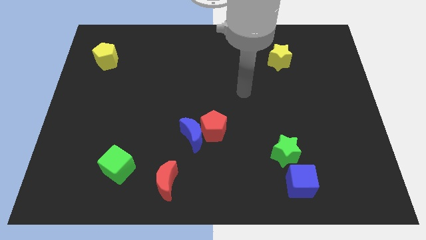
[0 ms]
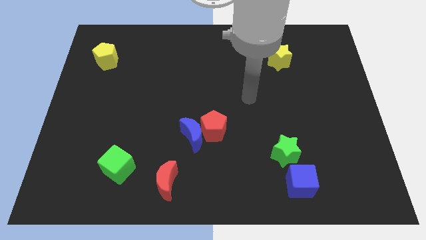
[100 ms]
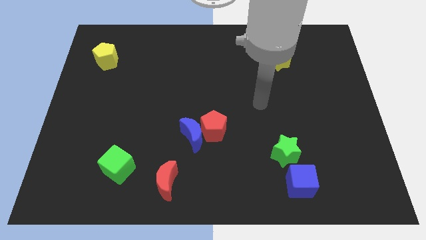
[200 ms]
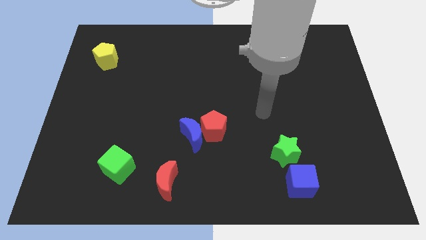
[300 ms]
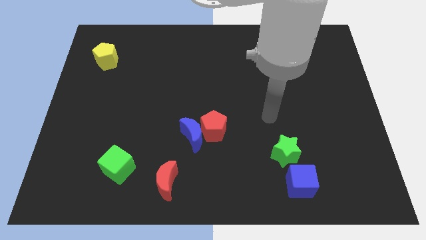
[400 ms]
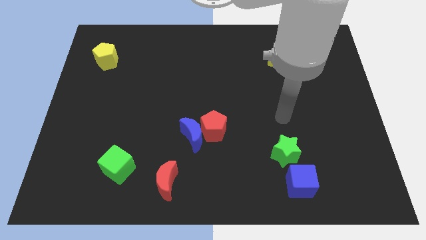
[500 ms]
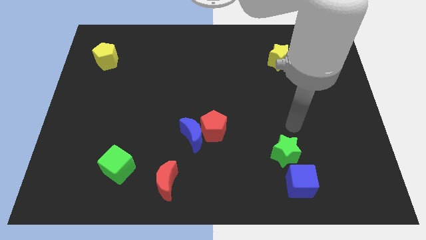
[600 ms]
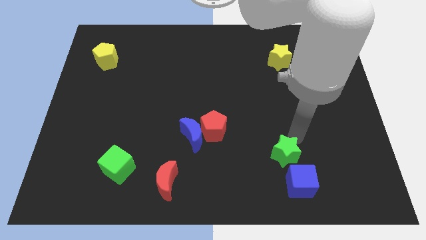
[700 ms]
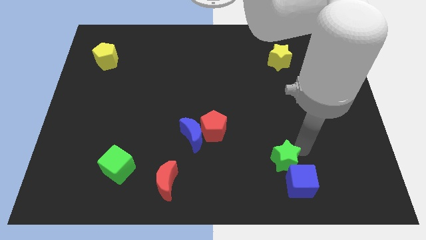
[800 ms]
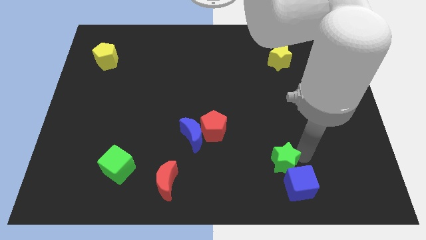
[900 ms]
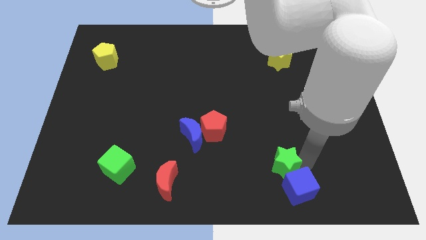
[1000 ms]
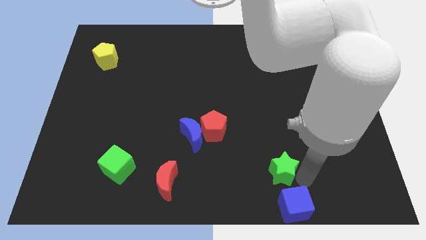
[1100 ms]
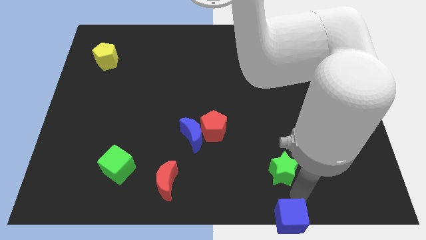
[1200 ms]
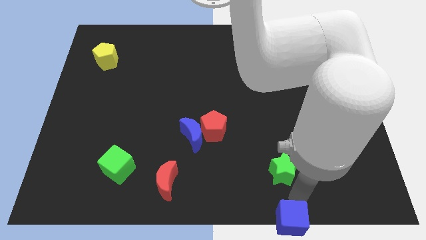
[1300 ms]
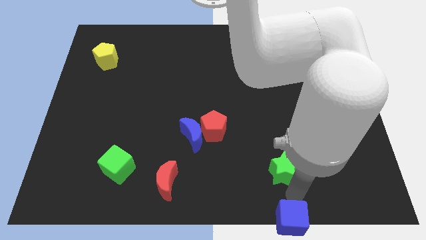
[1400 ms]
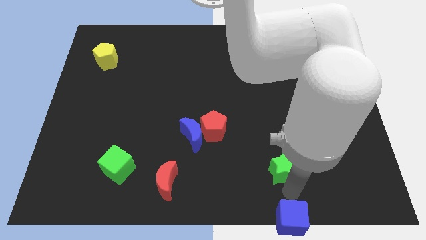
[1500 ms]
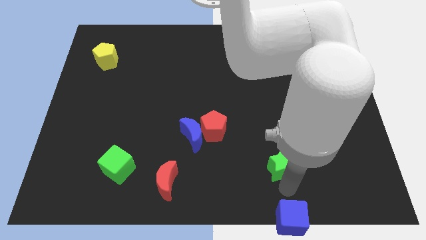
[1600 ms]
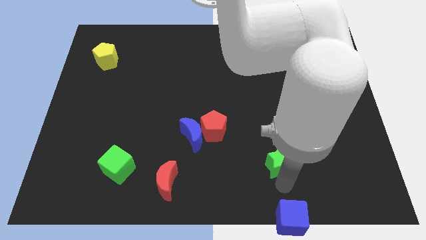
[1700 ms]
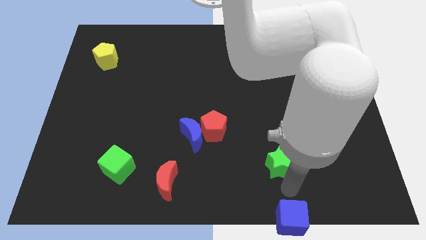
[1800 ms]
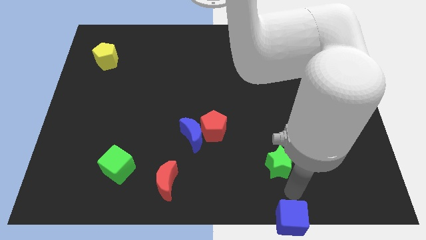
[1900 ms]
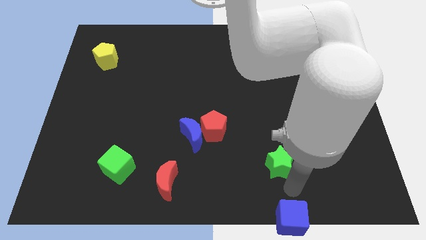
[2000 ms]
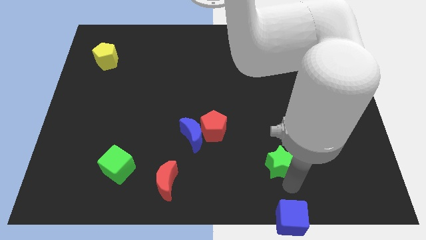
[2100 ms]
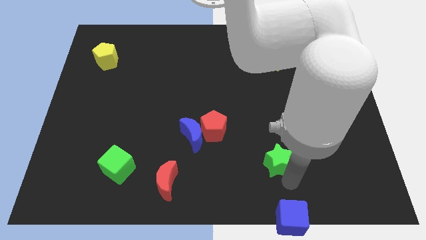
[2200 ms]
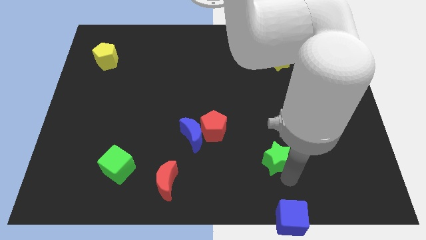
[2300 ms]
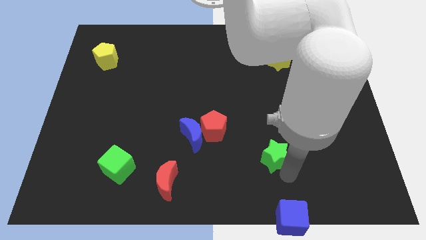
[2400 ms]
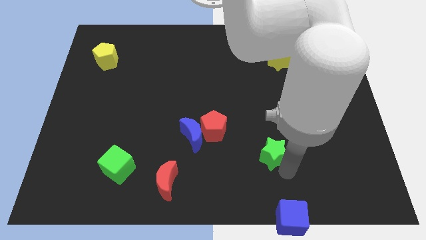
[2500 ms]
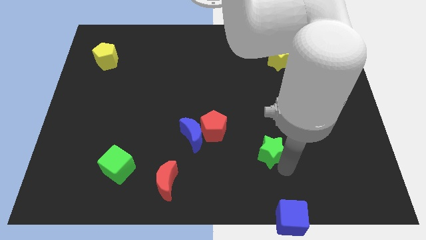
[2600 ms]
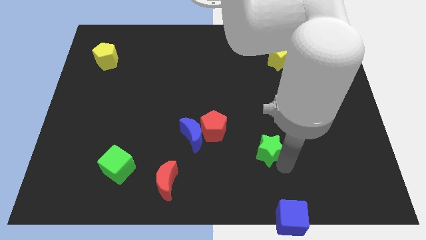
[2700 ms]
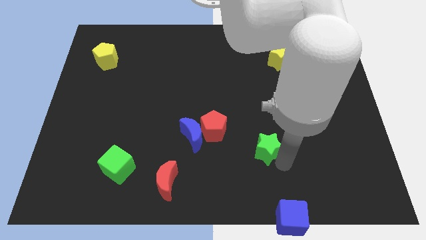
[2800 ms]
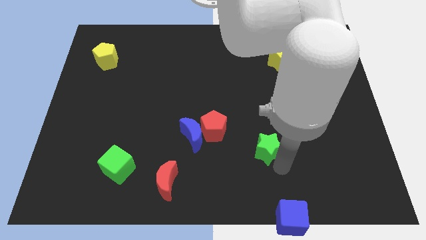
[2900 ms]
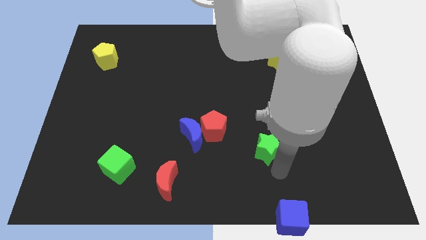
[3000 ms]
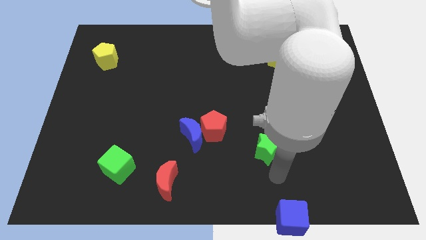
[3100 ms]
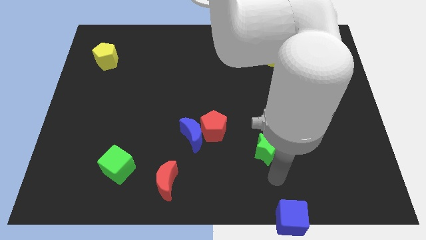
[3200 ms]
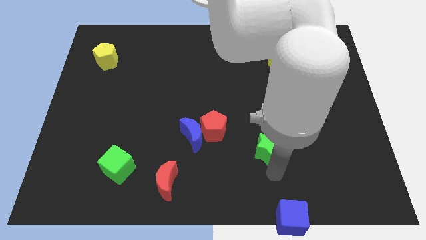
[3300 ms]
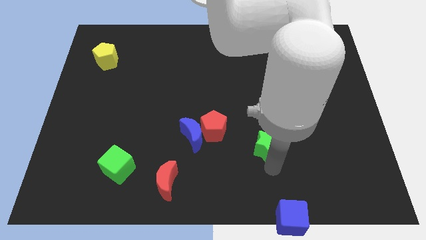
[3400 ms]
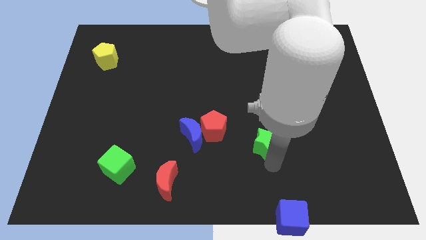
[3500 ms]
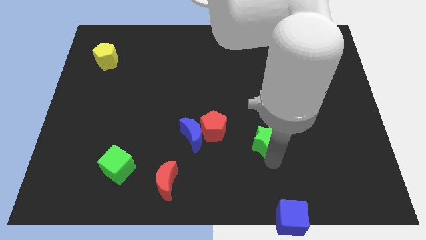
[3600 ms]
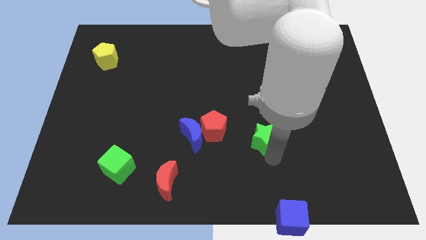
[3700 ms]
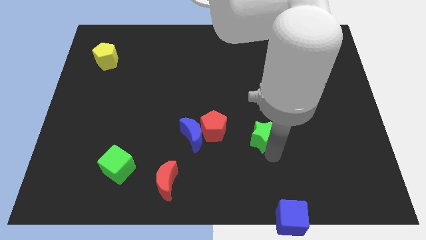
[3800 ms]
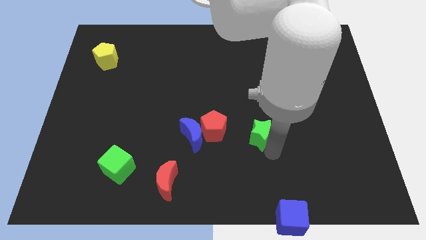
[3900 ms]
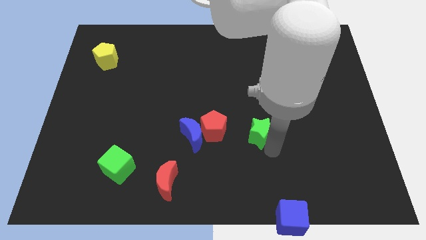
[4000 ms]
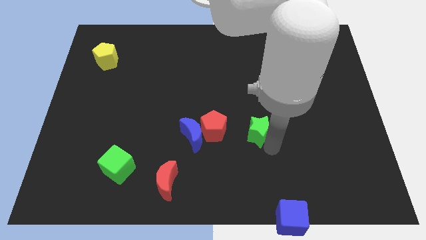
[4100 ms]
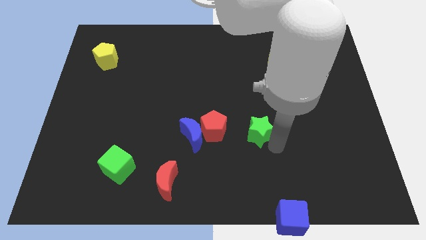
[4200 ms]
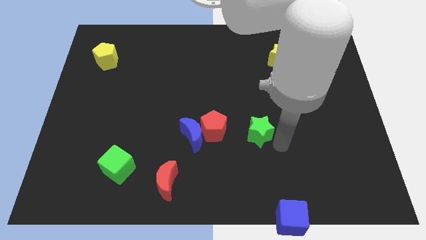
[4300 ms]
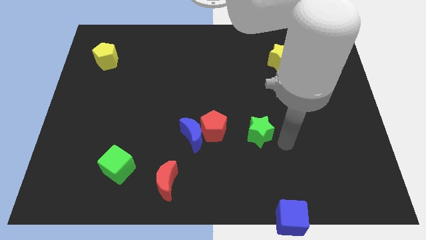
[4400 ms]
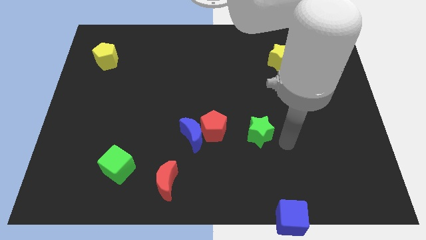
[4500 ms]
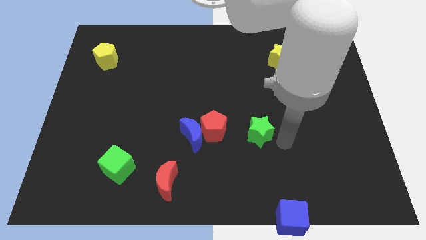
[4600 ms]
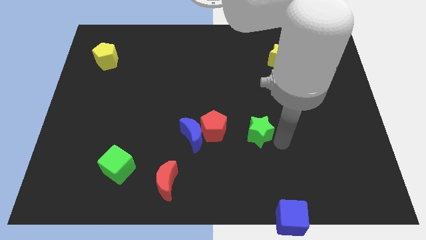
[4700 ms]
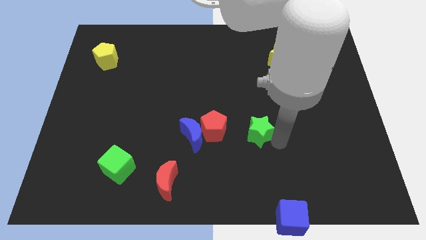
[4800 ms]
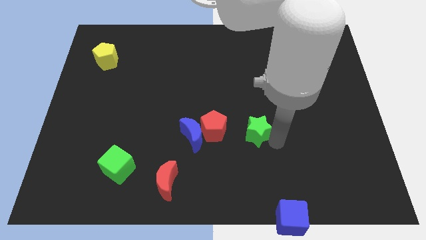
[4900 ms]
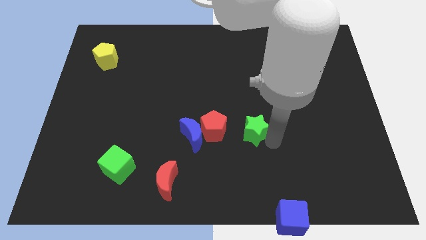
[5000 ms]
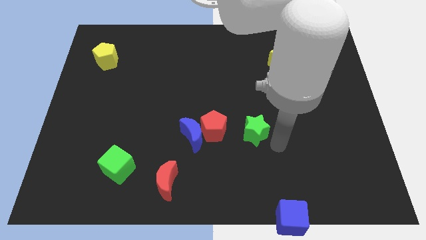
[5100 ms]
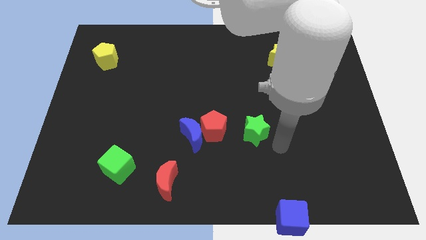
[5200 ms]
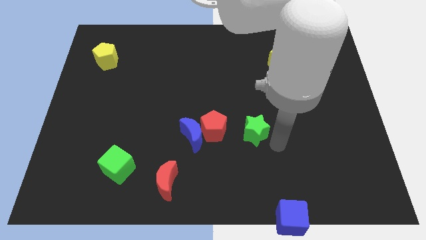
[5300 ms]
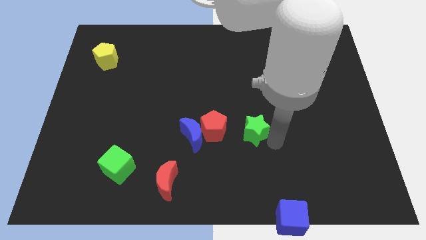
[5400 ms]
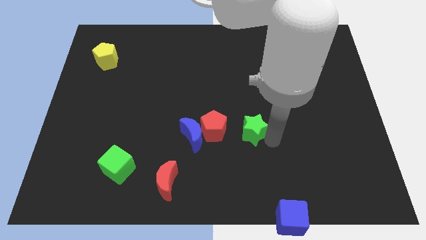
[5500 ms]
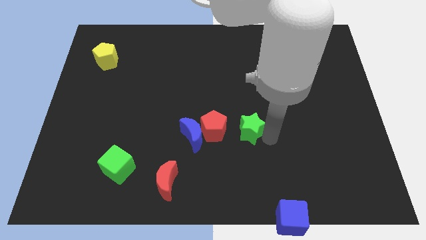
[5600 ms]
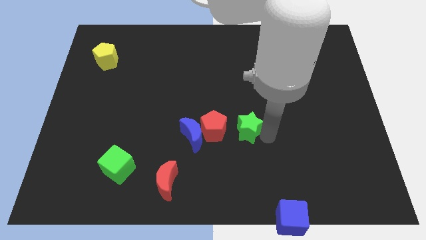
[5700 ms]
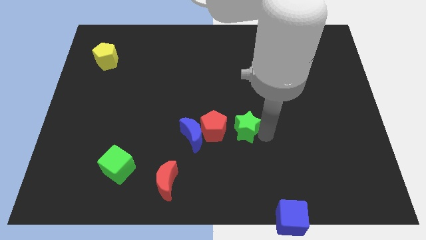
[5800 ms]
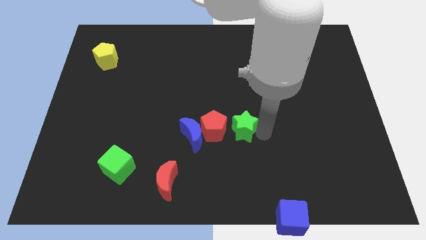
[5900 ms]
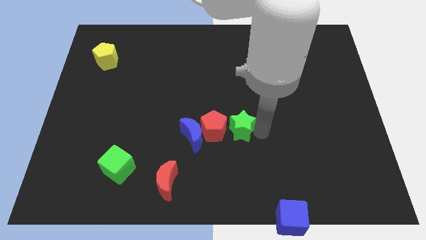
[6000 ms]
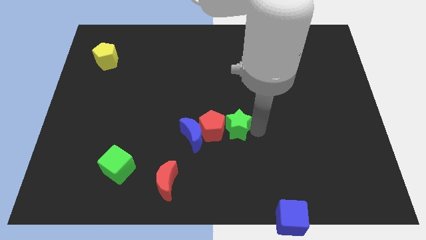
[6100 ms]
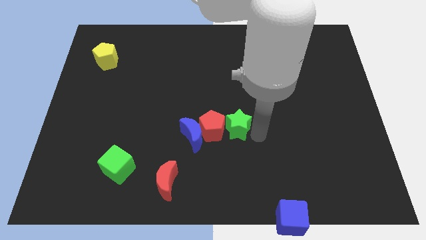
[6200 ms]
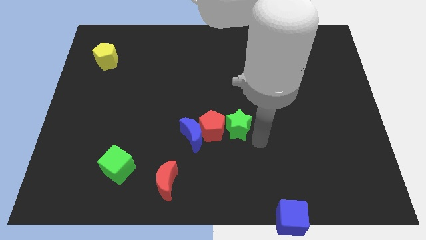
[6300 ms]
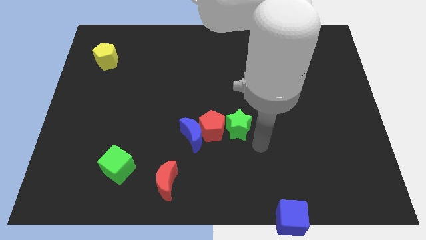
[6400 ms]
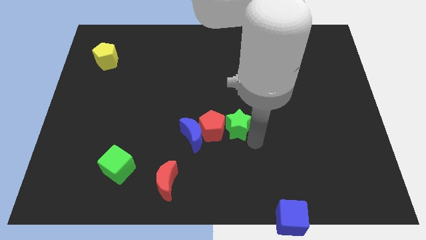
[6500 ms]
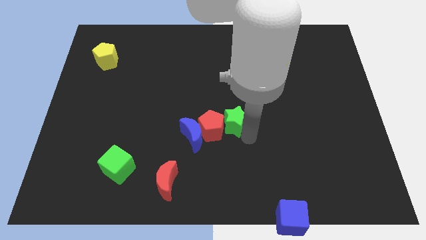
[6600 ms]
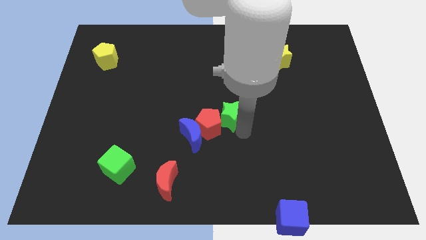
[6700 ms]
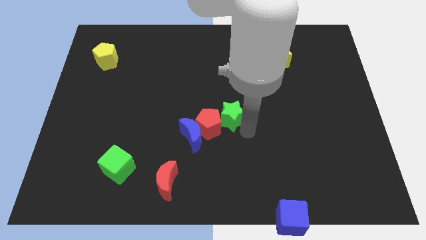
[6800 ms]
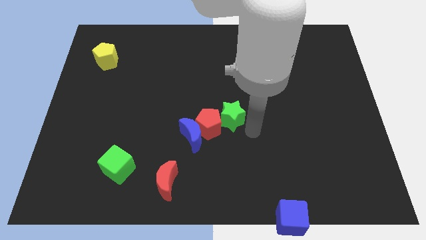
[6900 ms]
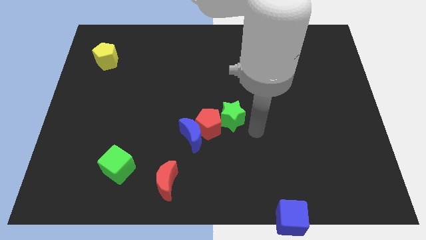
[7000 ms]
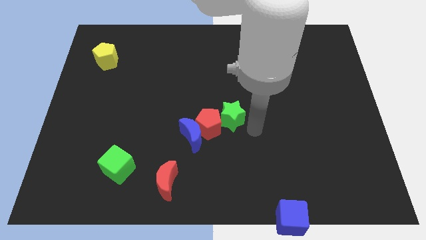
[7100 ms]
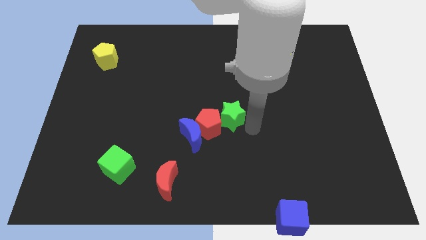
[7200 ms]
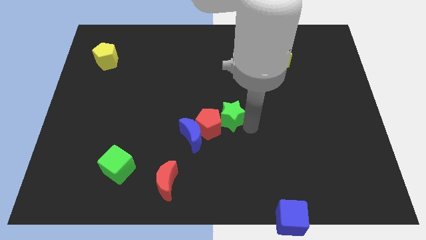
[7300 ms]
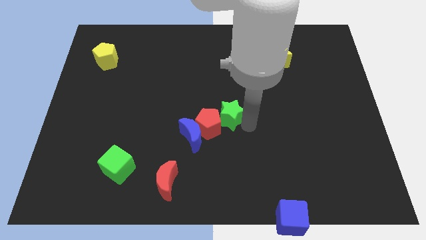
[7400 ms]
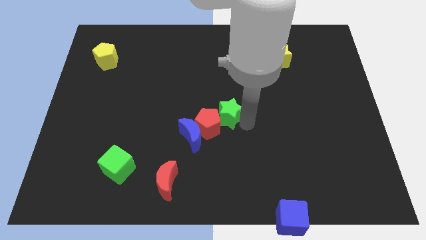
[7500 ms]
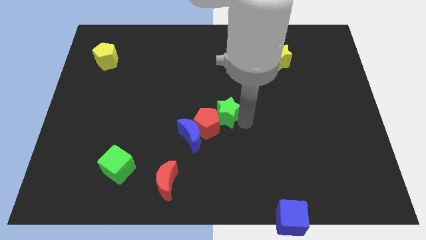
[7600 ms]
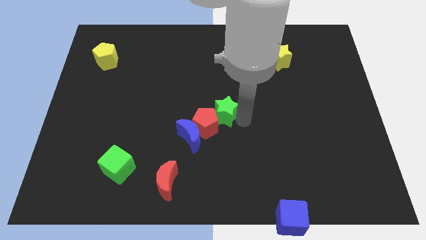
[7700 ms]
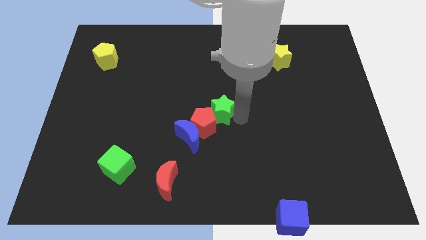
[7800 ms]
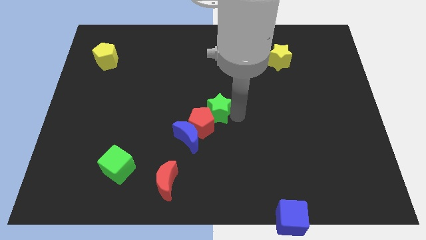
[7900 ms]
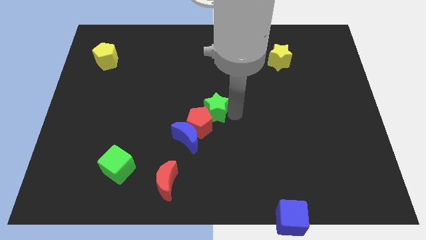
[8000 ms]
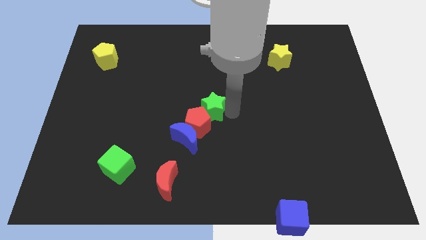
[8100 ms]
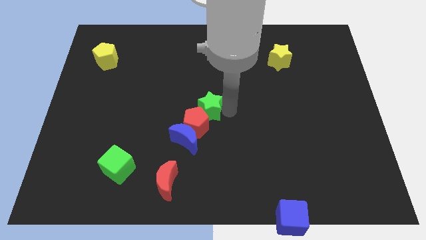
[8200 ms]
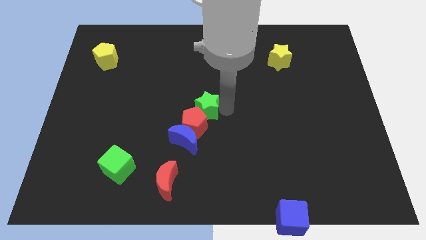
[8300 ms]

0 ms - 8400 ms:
push the green star above the blue moon
